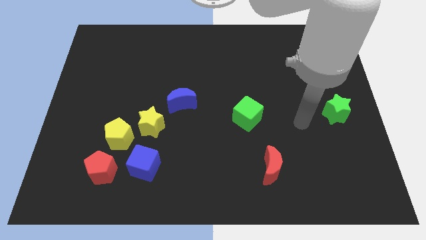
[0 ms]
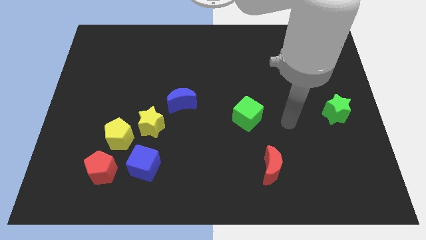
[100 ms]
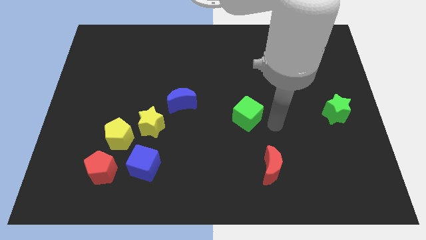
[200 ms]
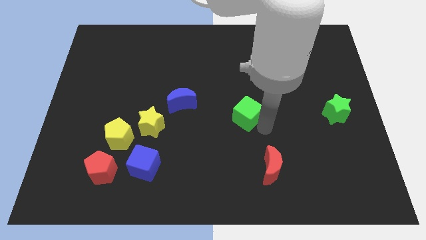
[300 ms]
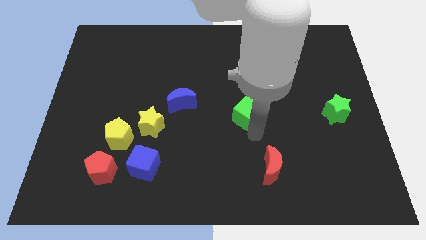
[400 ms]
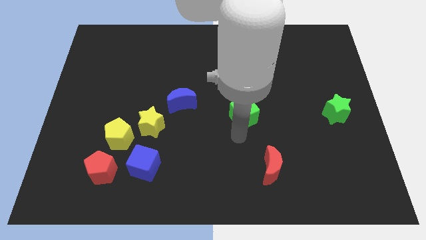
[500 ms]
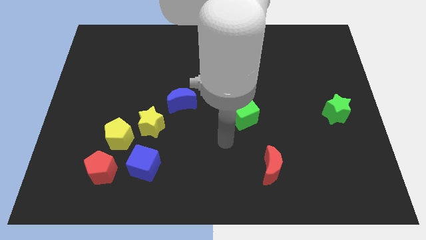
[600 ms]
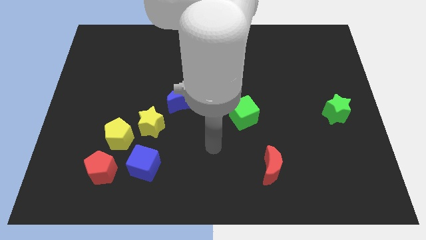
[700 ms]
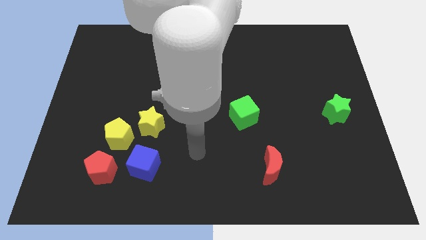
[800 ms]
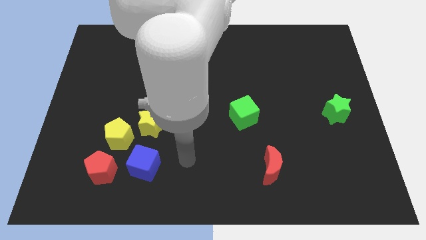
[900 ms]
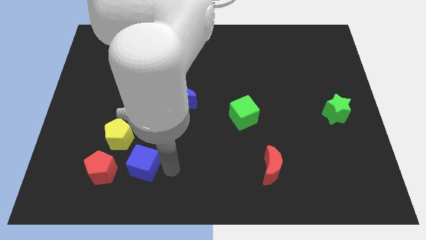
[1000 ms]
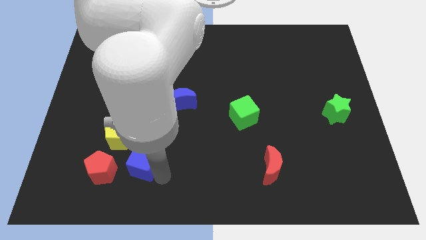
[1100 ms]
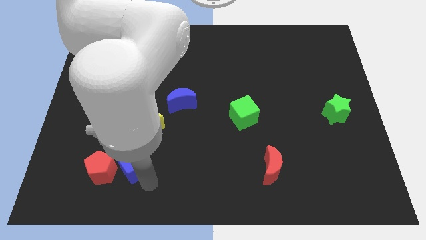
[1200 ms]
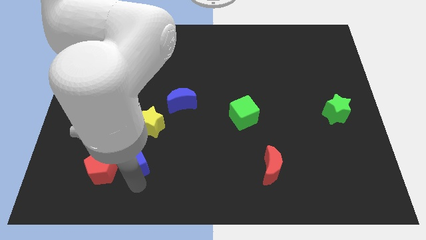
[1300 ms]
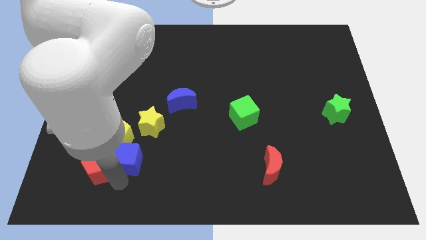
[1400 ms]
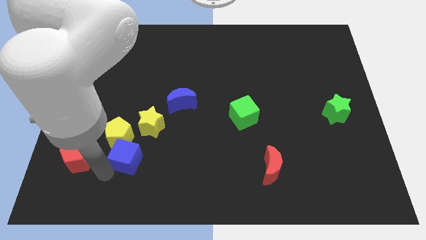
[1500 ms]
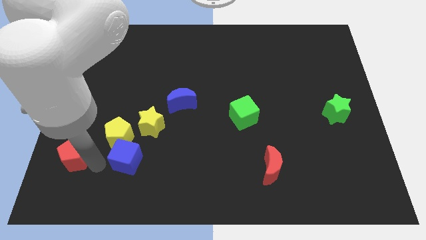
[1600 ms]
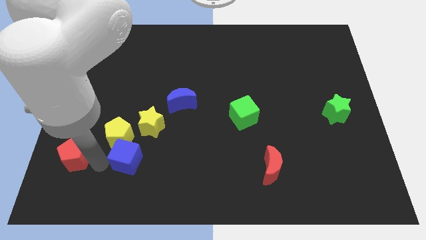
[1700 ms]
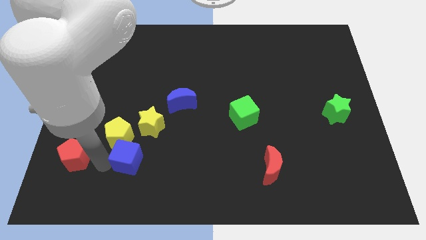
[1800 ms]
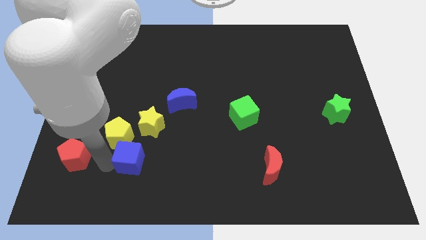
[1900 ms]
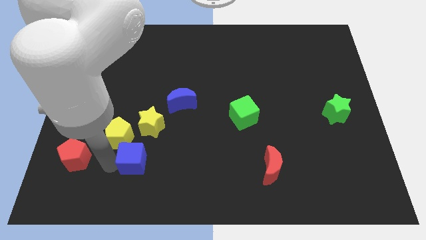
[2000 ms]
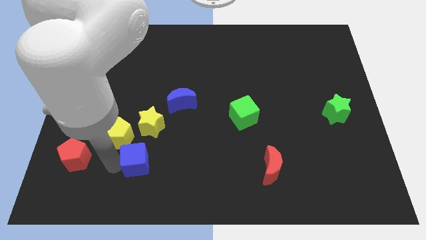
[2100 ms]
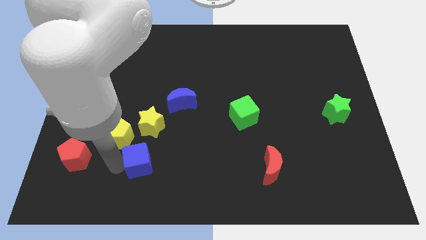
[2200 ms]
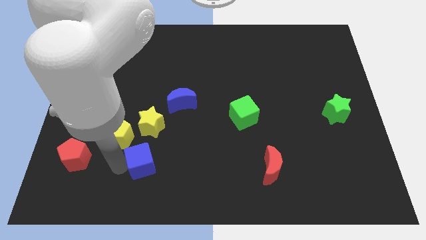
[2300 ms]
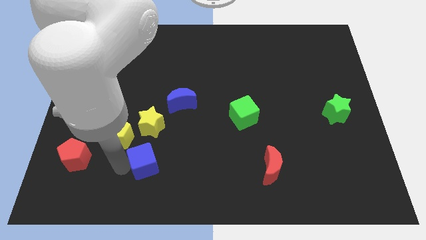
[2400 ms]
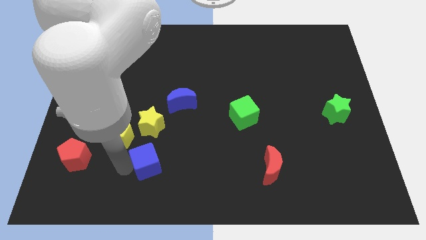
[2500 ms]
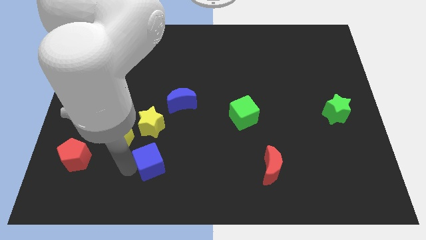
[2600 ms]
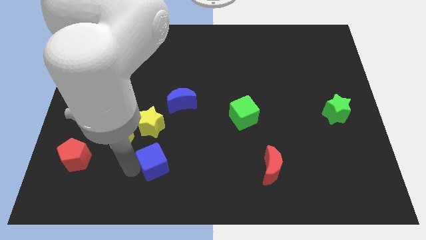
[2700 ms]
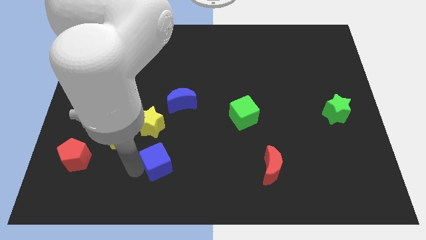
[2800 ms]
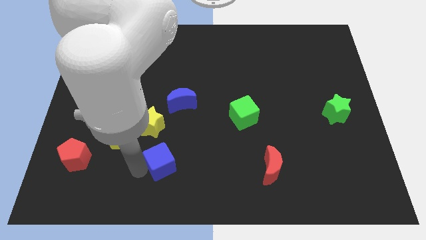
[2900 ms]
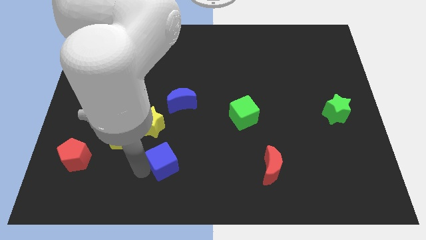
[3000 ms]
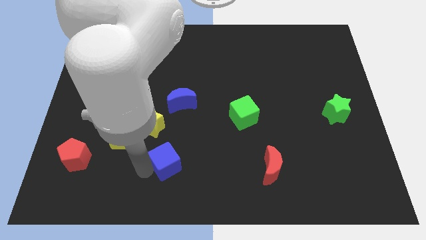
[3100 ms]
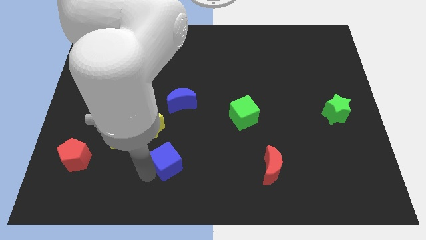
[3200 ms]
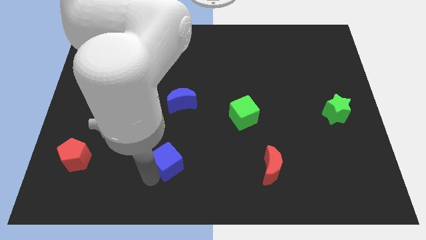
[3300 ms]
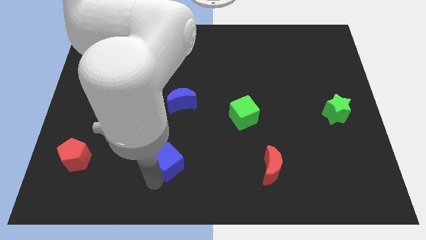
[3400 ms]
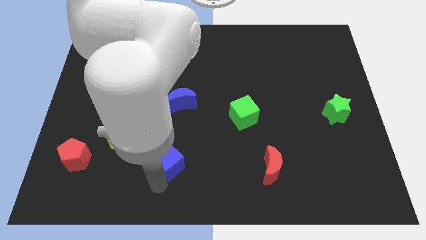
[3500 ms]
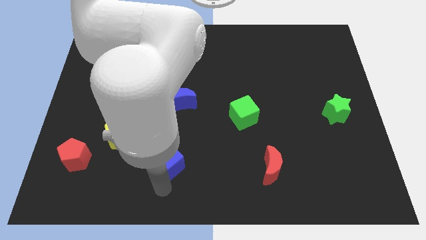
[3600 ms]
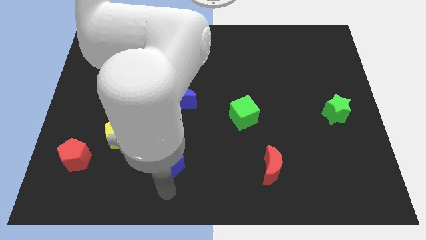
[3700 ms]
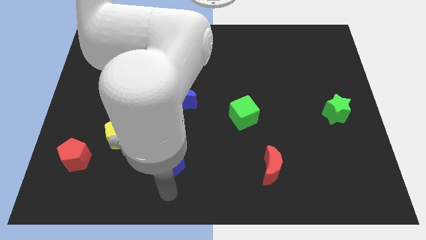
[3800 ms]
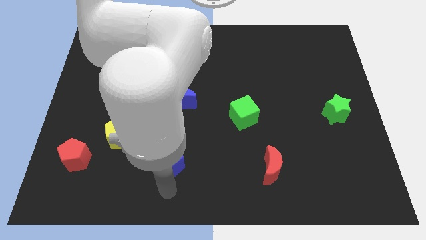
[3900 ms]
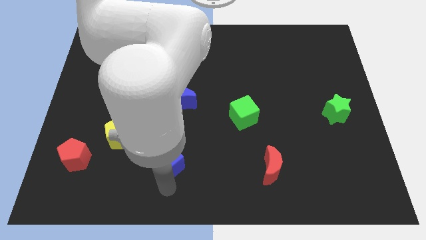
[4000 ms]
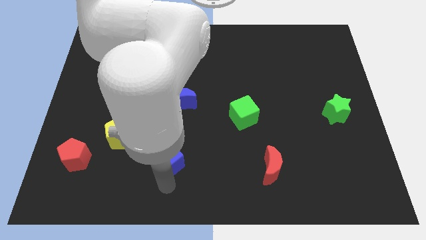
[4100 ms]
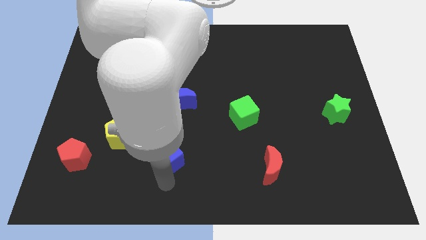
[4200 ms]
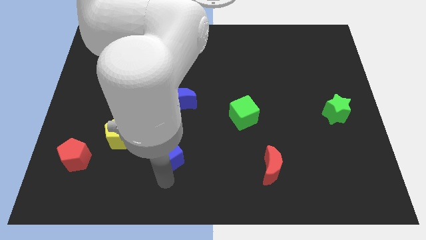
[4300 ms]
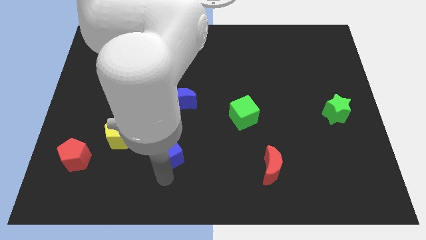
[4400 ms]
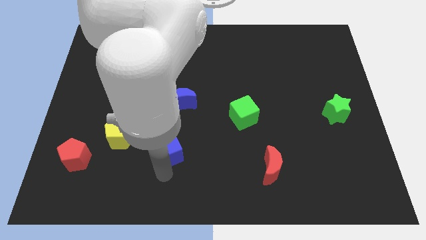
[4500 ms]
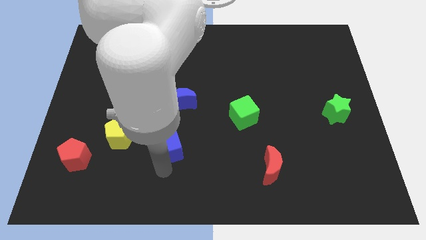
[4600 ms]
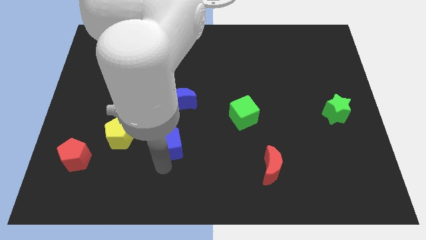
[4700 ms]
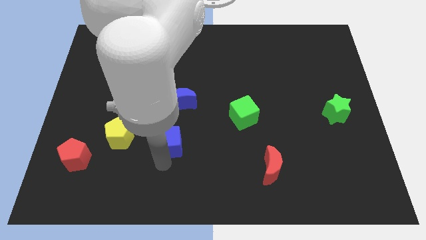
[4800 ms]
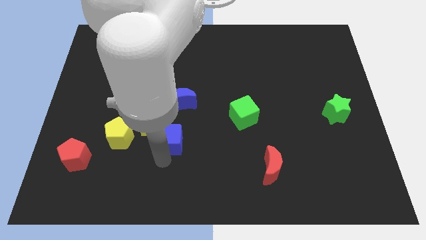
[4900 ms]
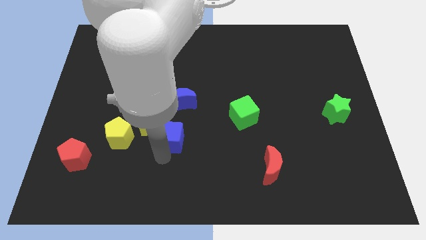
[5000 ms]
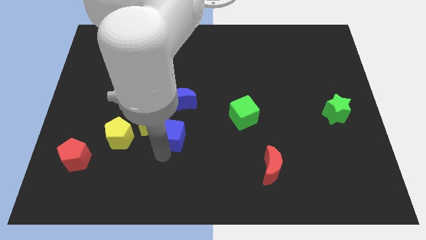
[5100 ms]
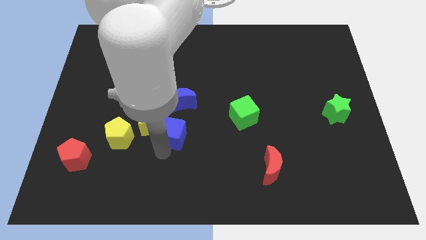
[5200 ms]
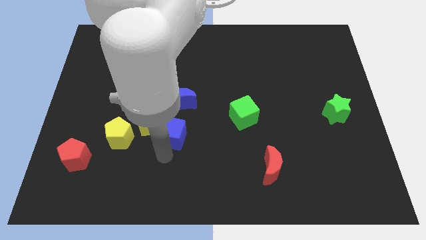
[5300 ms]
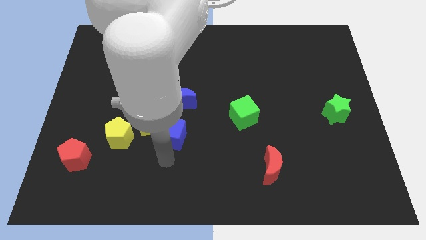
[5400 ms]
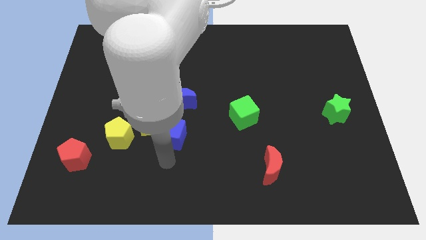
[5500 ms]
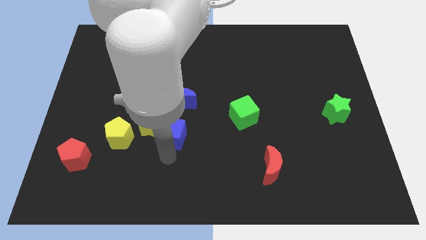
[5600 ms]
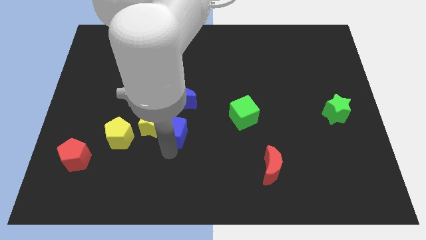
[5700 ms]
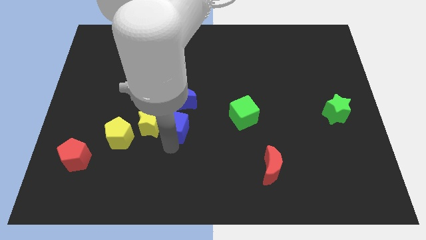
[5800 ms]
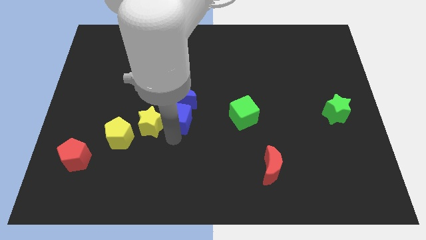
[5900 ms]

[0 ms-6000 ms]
push the blue cube next to the blue moon

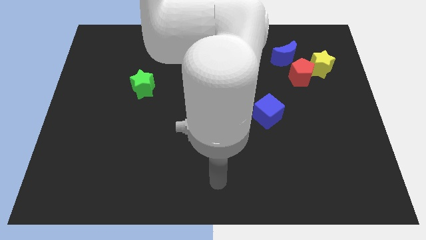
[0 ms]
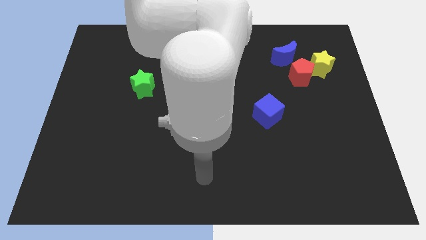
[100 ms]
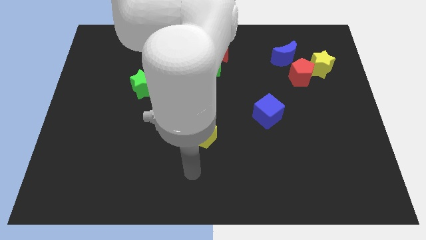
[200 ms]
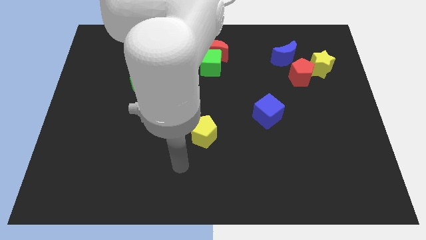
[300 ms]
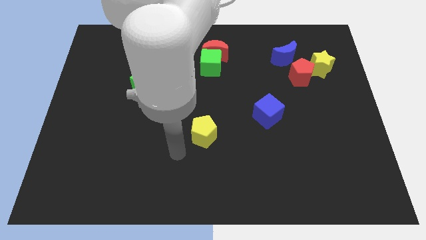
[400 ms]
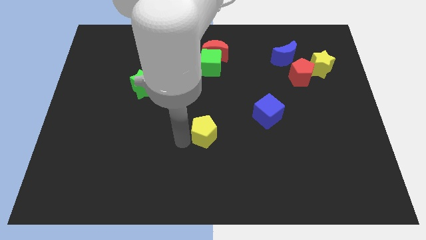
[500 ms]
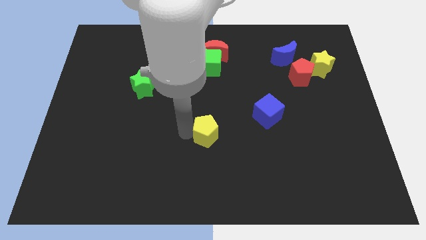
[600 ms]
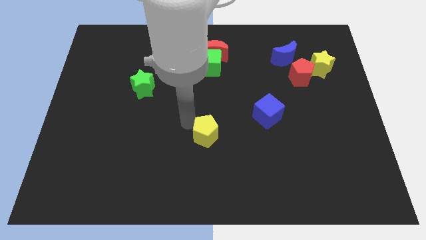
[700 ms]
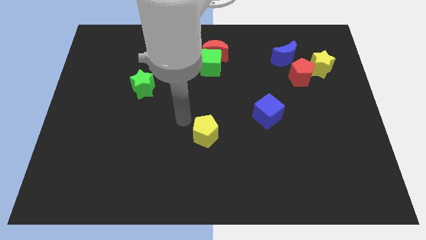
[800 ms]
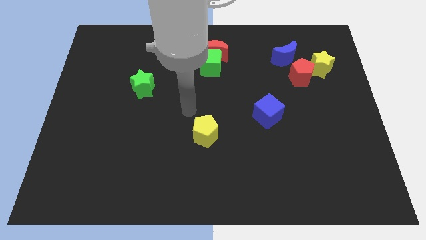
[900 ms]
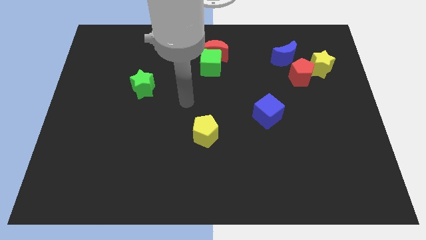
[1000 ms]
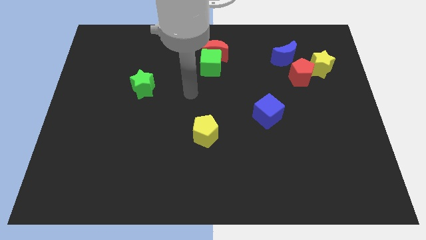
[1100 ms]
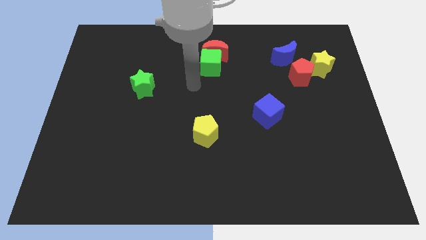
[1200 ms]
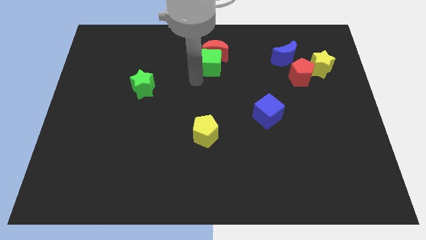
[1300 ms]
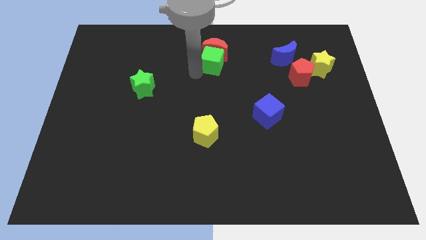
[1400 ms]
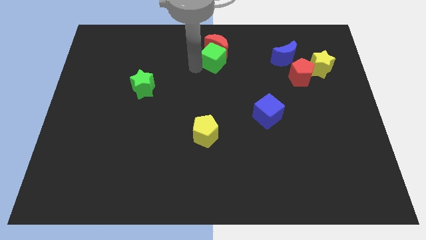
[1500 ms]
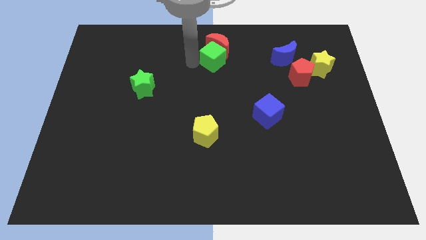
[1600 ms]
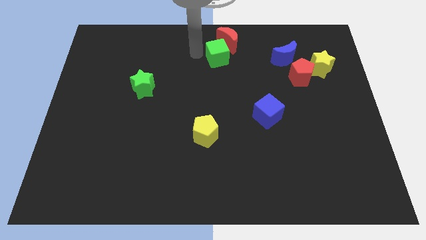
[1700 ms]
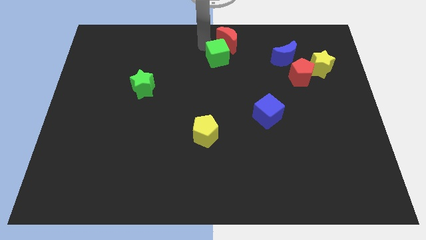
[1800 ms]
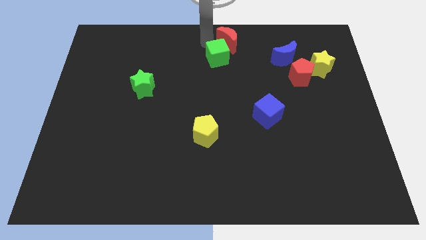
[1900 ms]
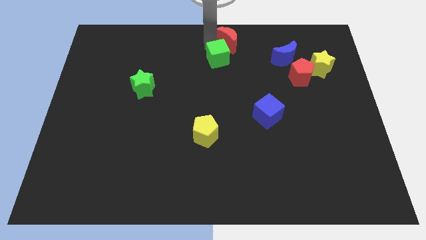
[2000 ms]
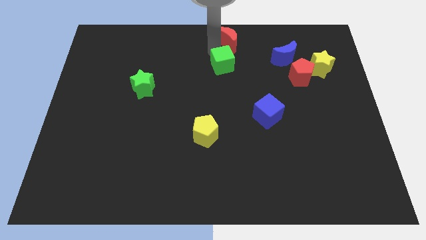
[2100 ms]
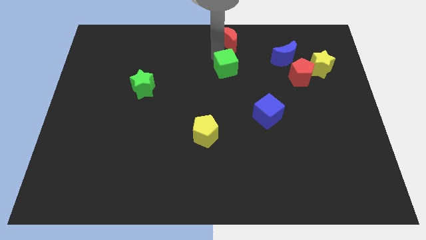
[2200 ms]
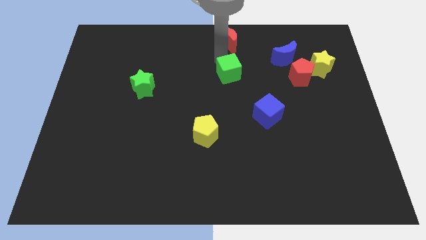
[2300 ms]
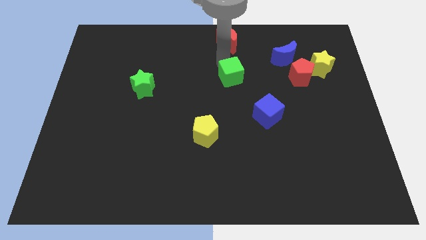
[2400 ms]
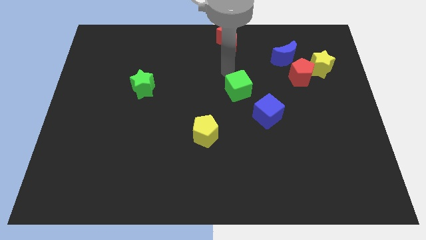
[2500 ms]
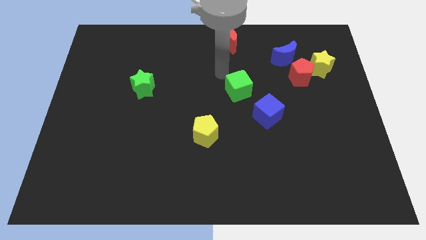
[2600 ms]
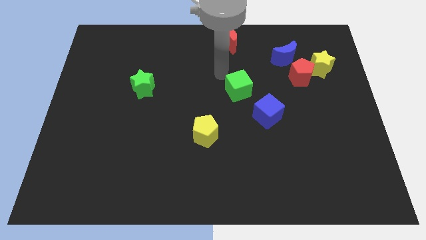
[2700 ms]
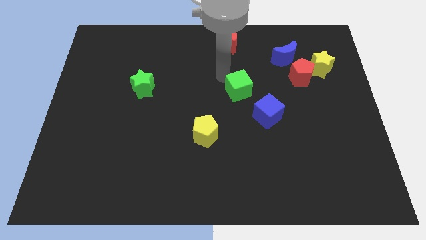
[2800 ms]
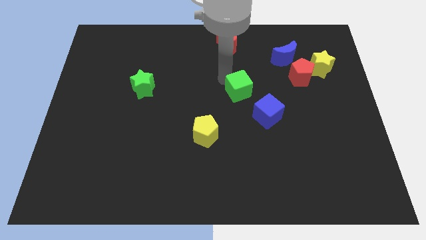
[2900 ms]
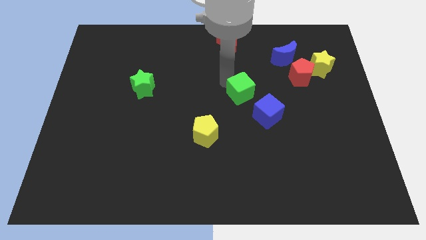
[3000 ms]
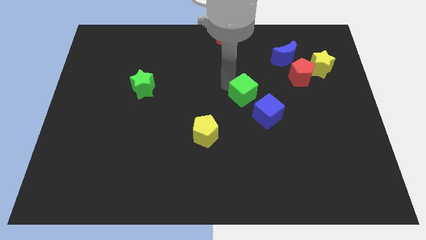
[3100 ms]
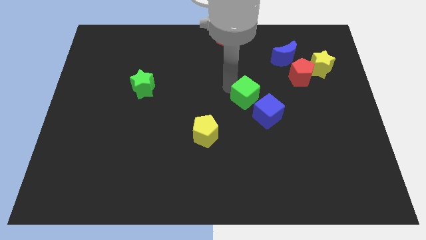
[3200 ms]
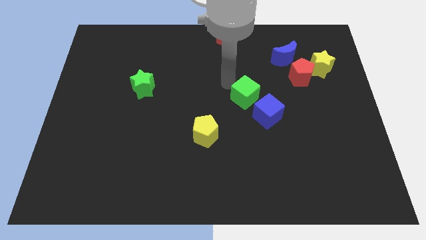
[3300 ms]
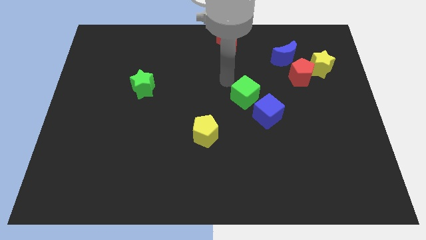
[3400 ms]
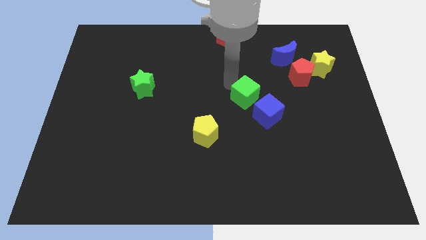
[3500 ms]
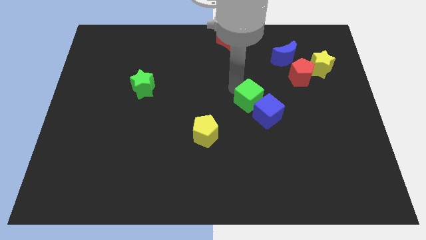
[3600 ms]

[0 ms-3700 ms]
put the green cube towards the blue cube
